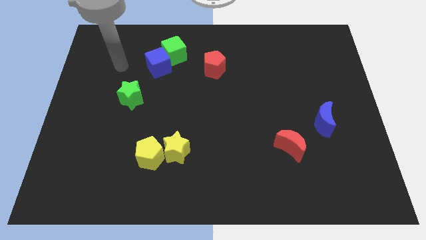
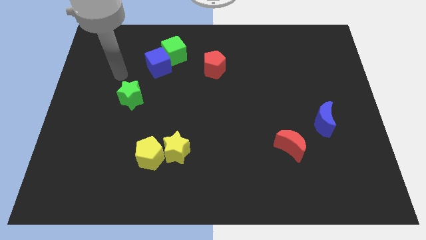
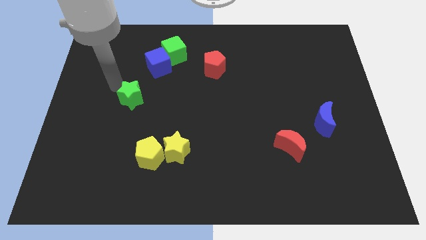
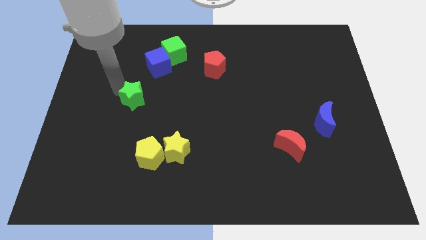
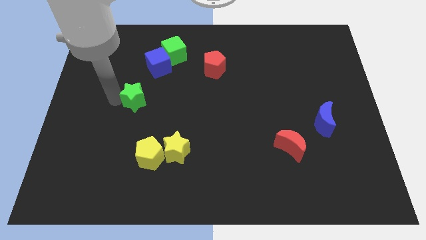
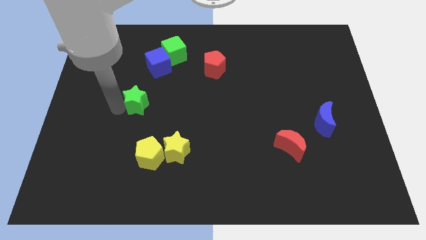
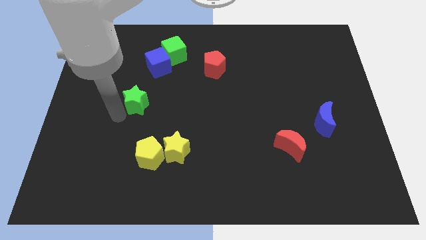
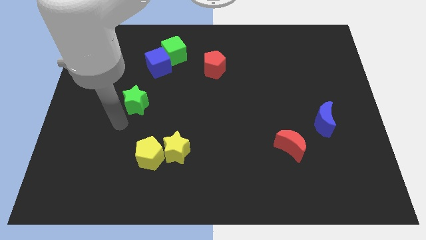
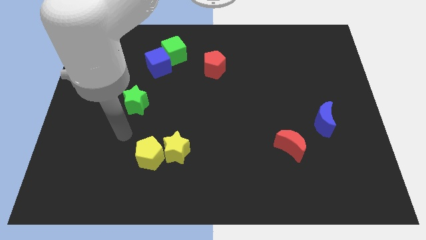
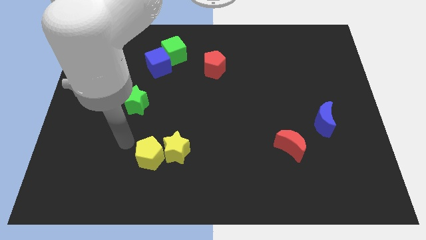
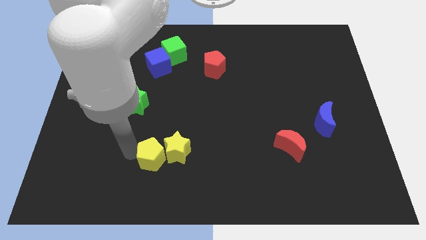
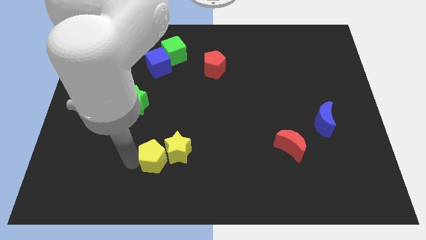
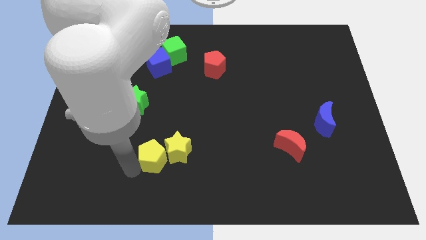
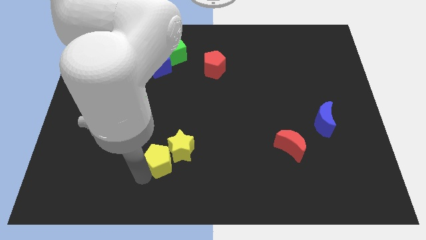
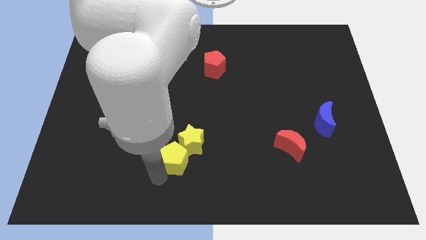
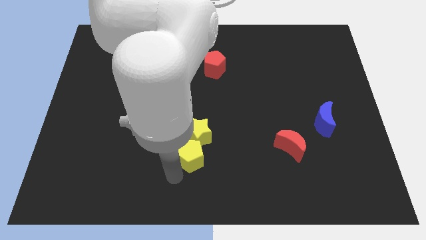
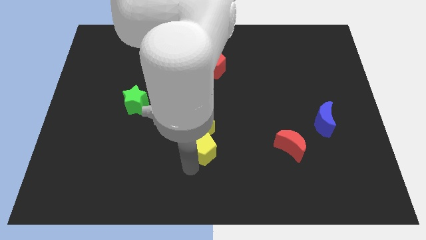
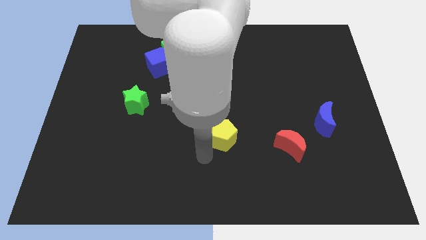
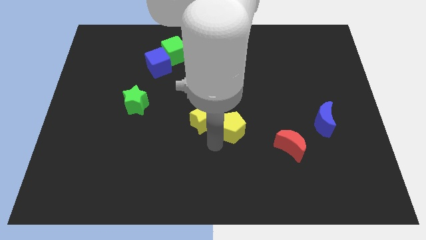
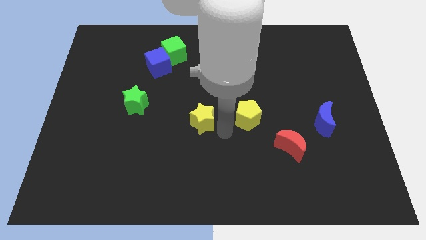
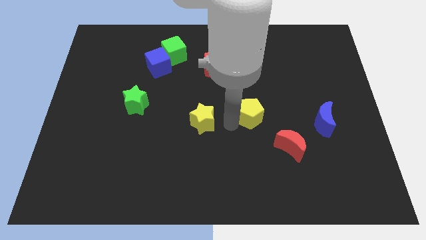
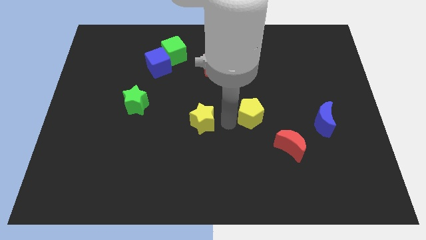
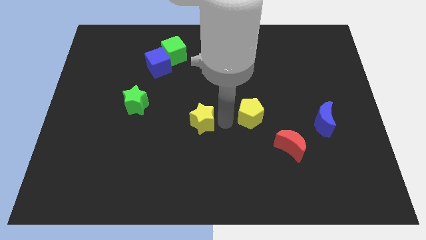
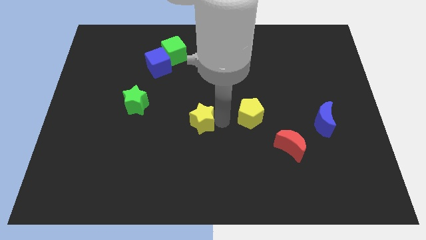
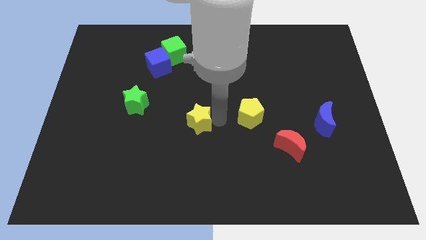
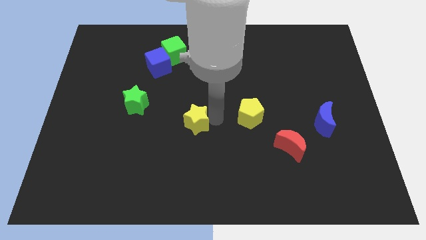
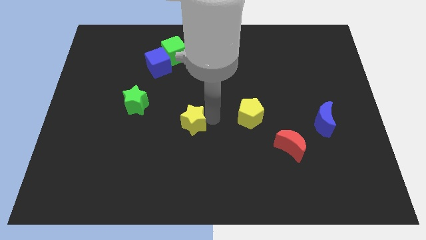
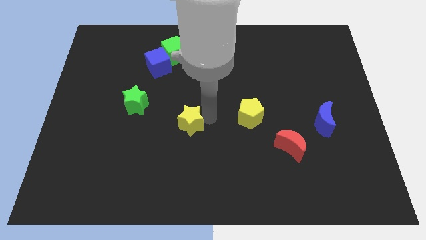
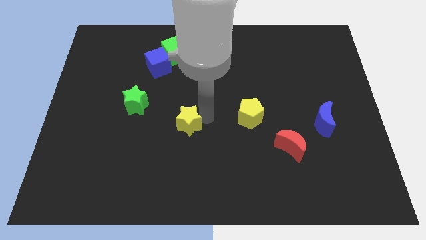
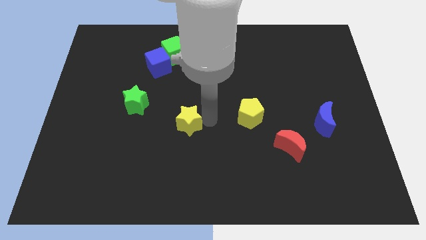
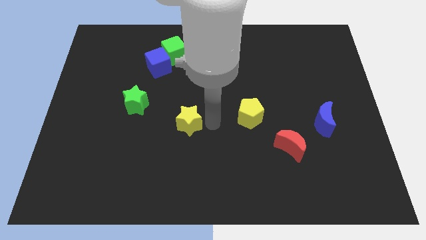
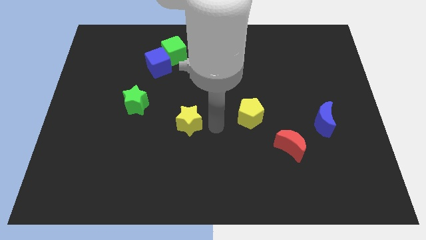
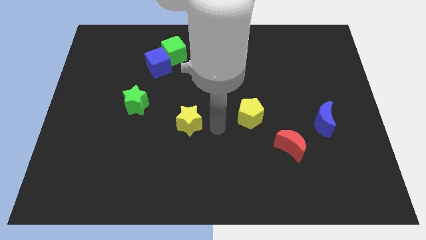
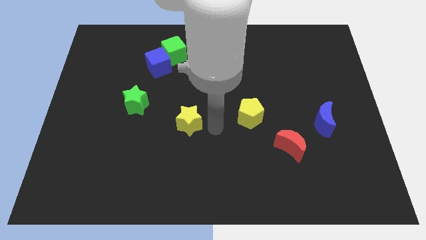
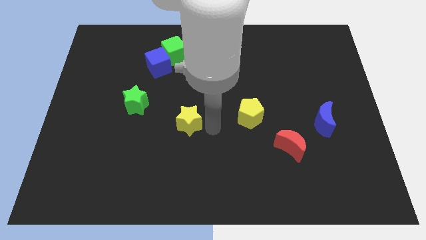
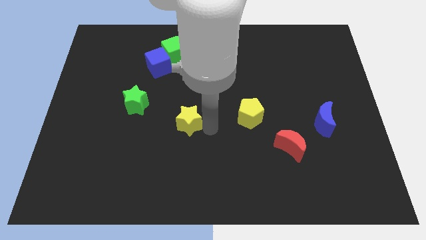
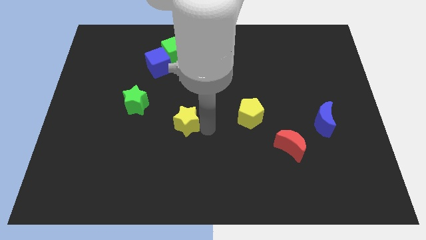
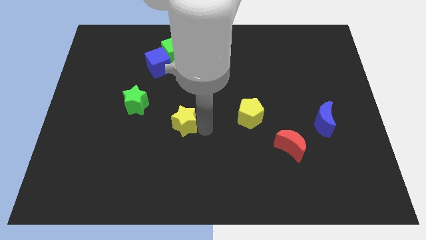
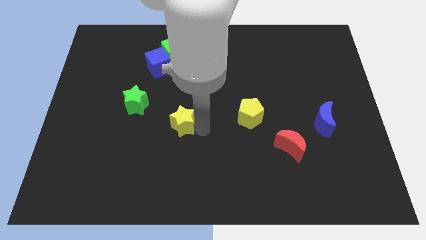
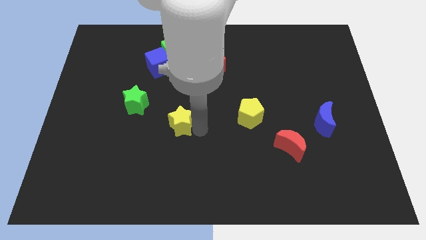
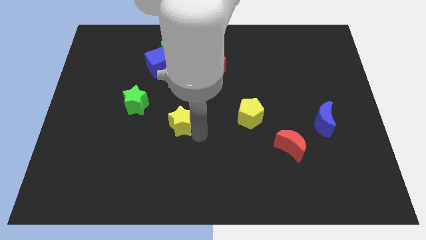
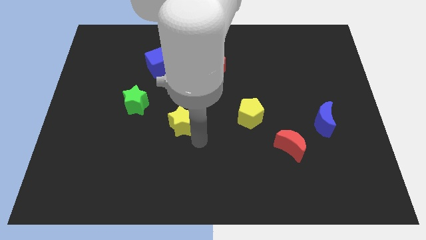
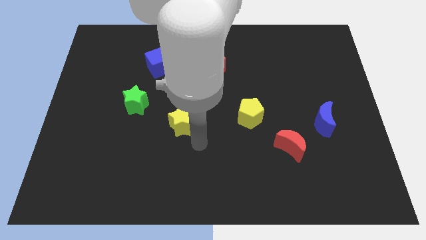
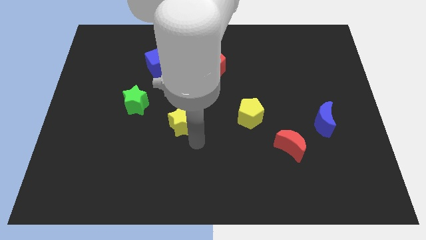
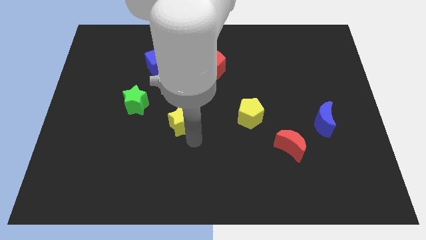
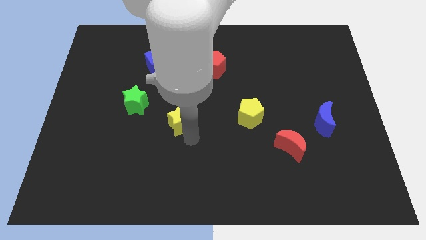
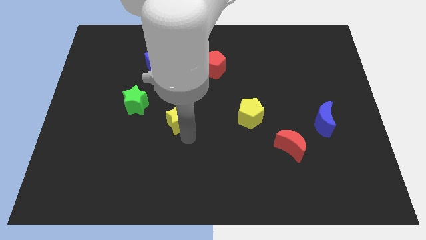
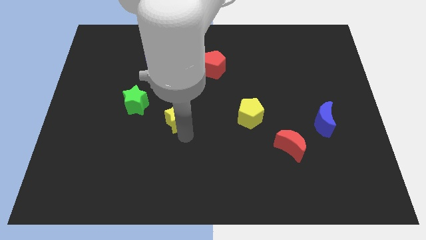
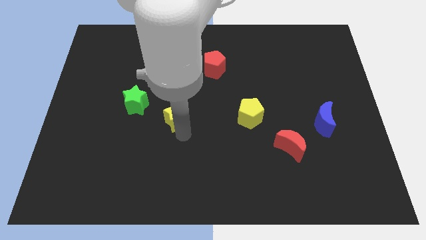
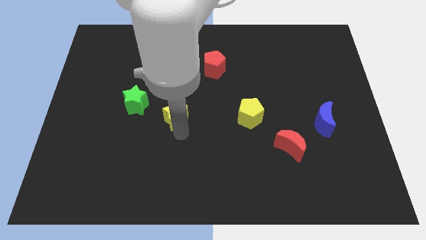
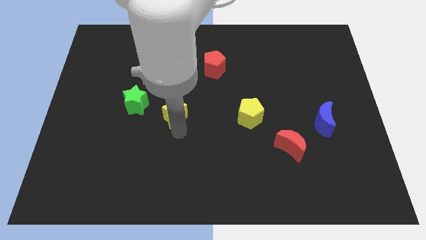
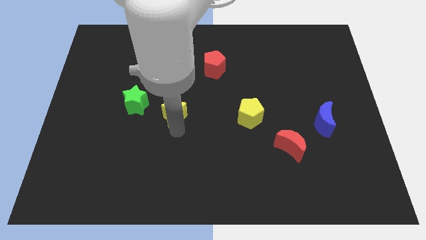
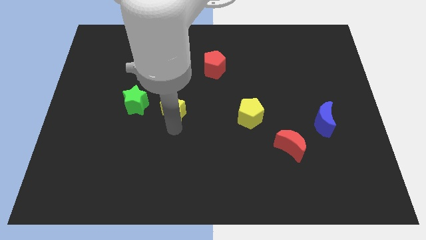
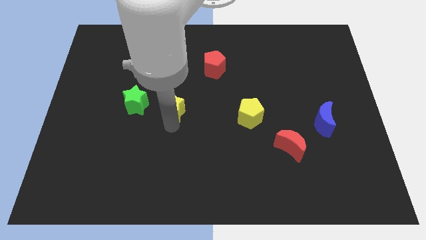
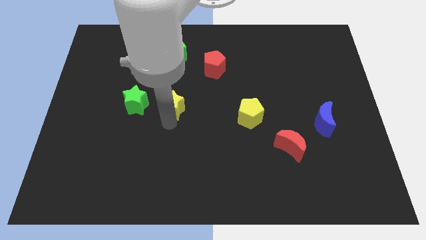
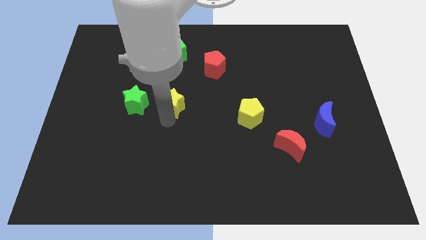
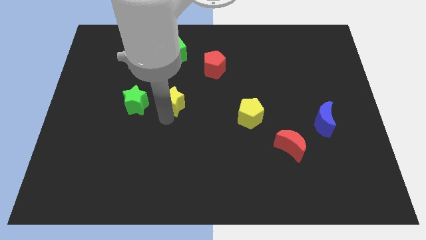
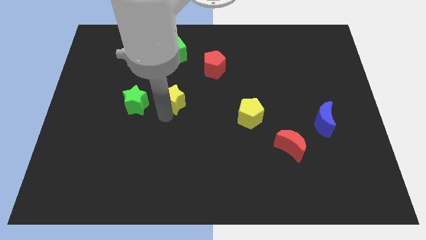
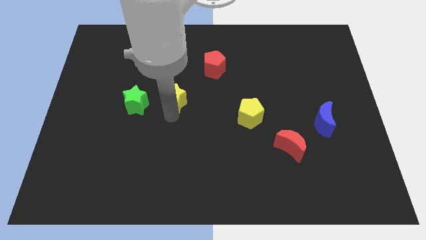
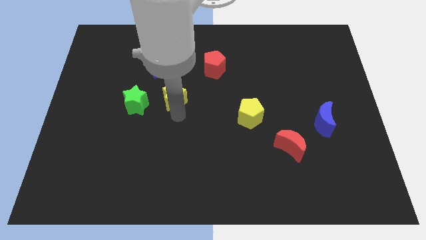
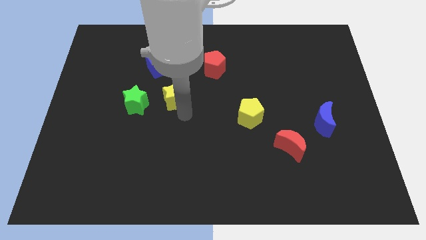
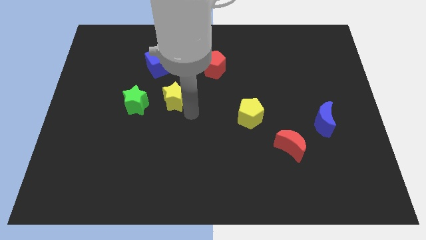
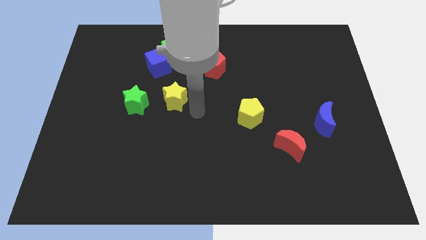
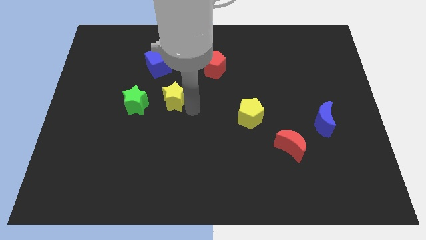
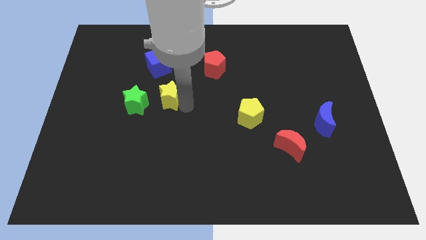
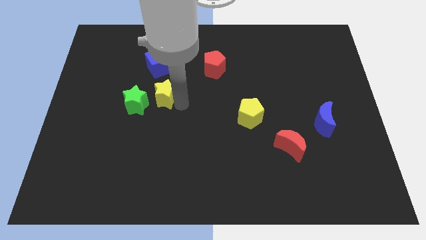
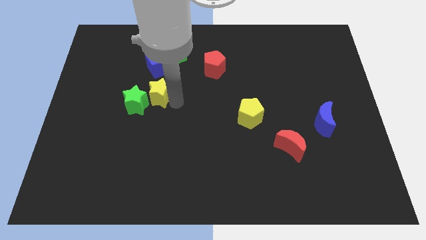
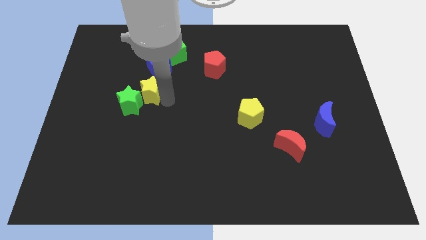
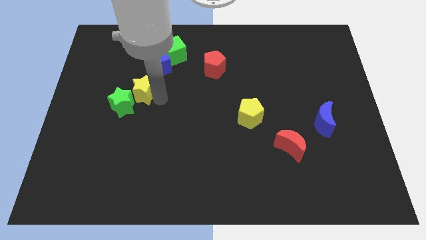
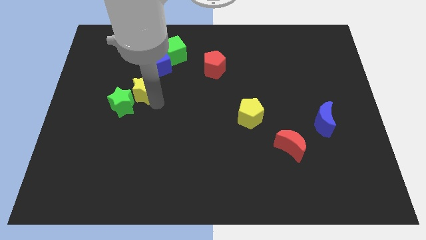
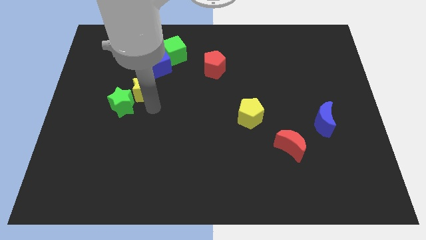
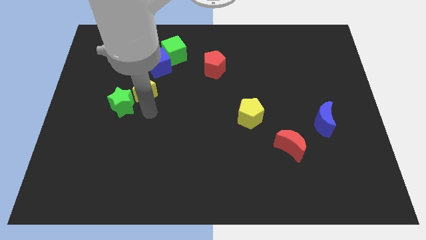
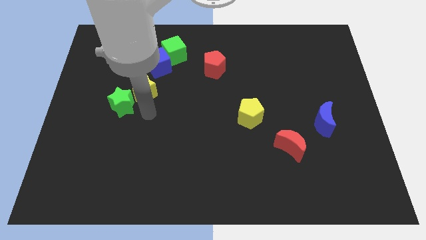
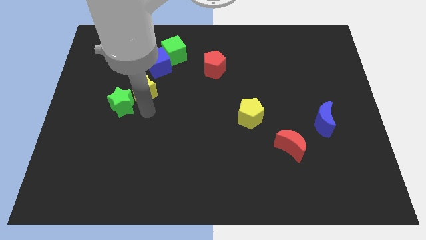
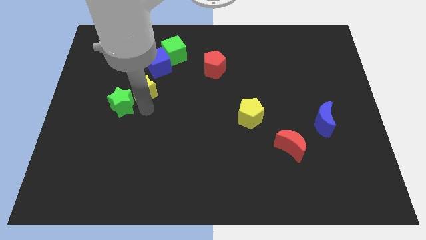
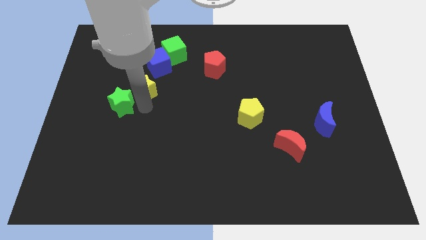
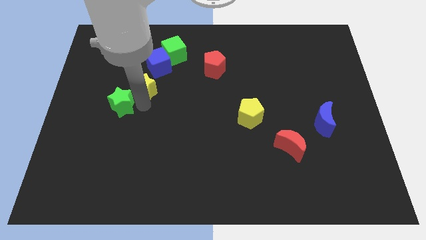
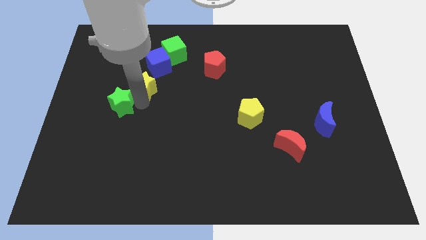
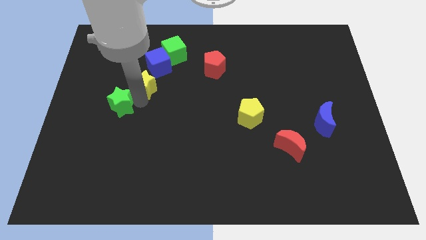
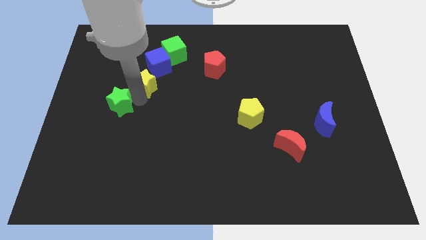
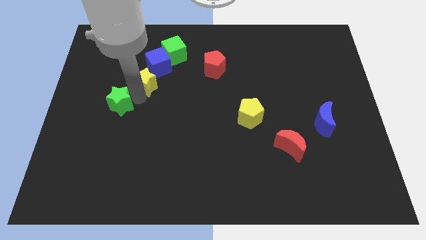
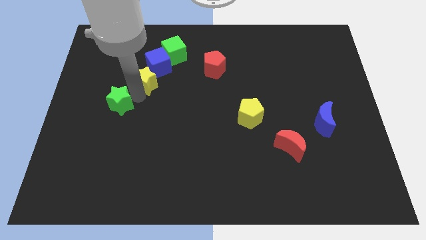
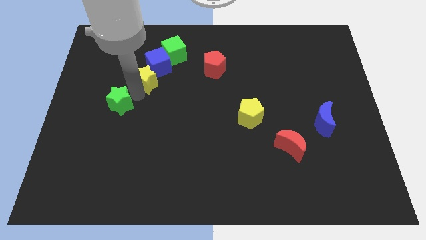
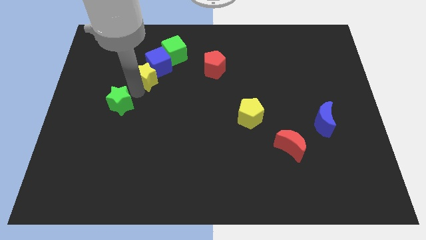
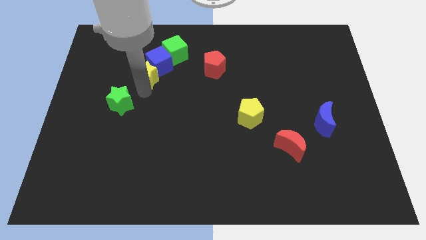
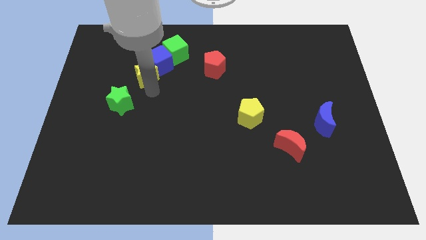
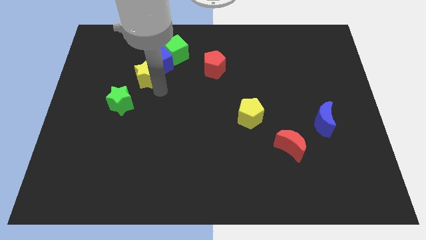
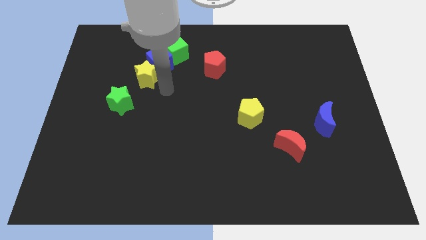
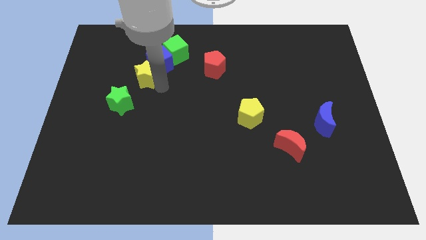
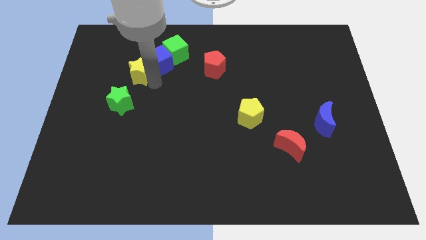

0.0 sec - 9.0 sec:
slide the yellow star left of the blue cube
